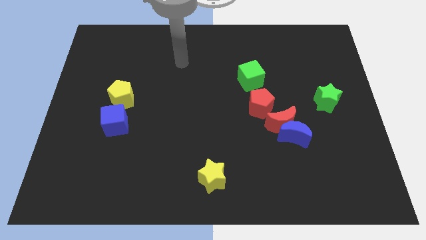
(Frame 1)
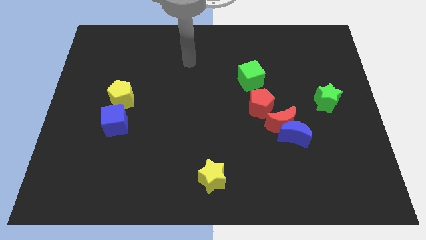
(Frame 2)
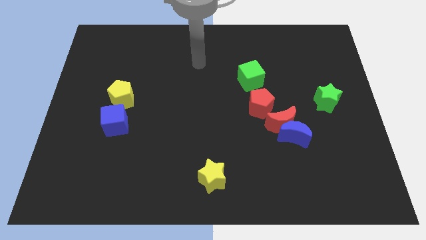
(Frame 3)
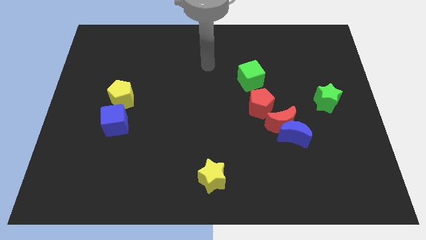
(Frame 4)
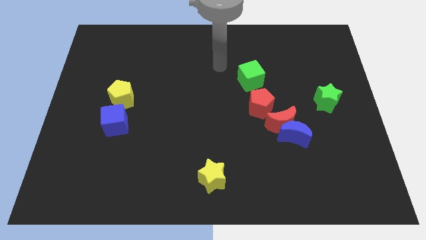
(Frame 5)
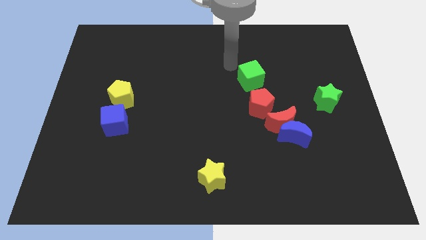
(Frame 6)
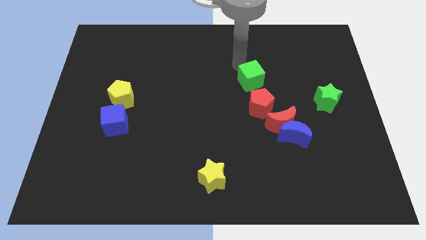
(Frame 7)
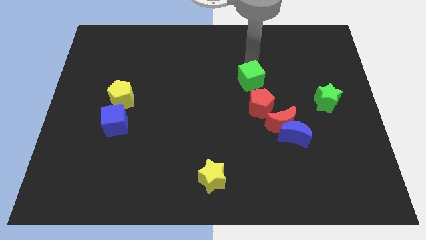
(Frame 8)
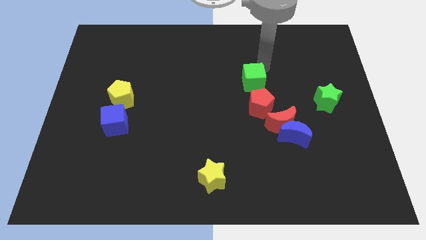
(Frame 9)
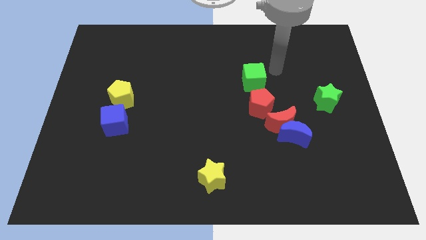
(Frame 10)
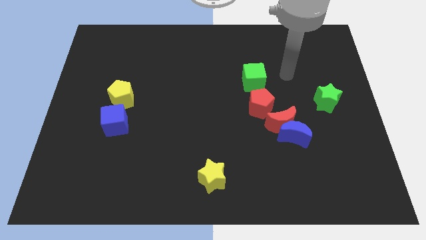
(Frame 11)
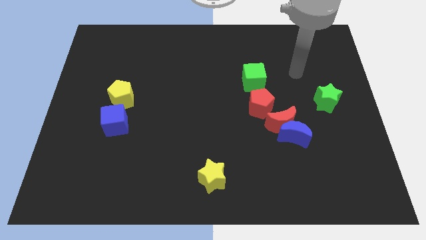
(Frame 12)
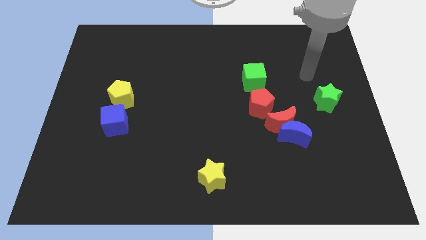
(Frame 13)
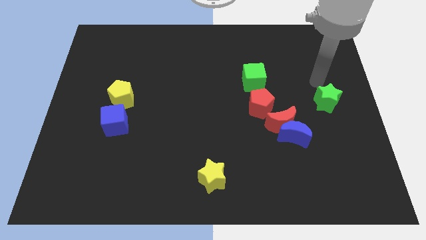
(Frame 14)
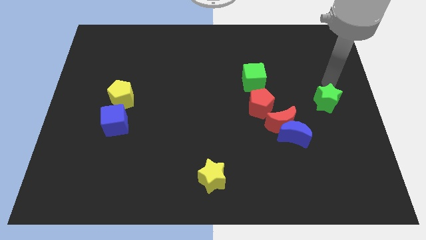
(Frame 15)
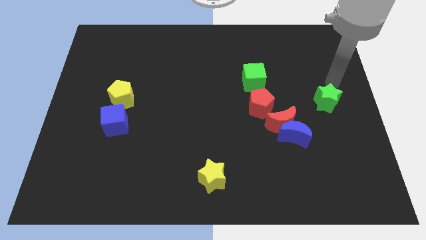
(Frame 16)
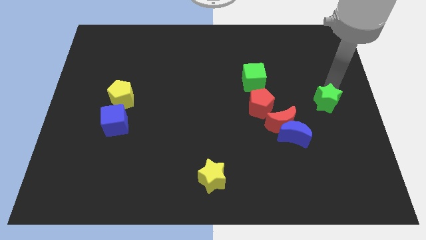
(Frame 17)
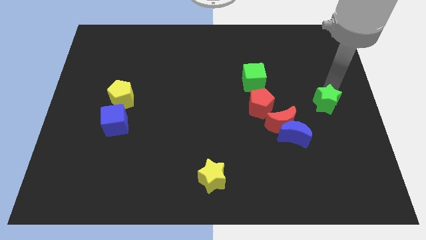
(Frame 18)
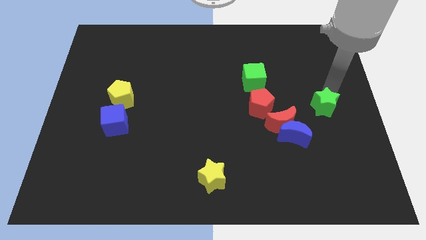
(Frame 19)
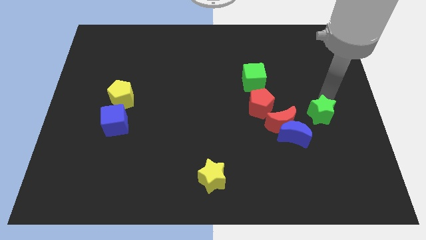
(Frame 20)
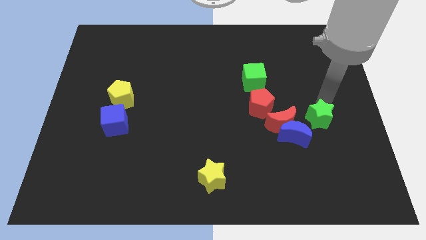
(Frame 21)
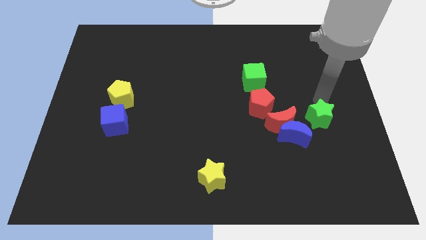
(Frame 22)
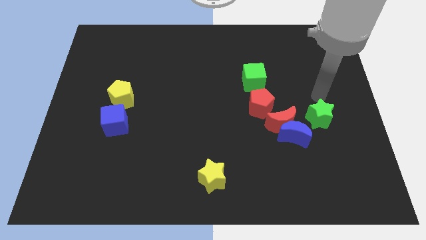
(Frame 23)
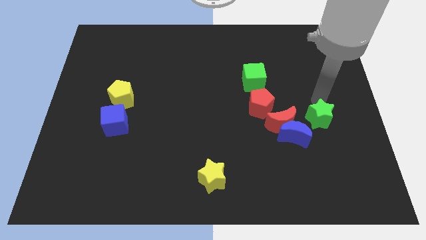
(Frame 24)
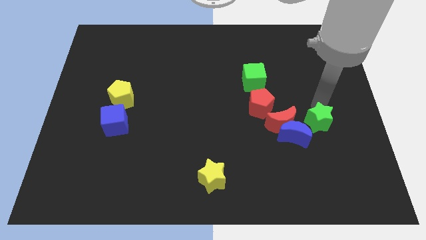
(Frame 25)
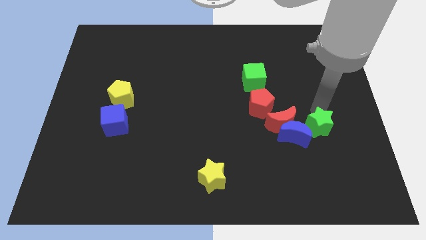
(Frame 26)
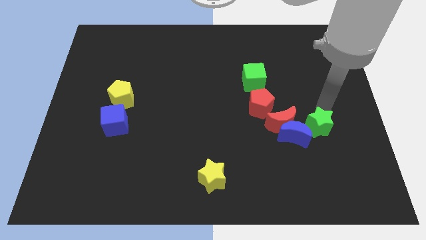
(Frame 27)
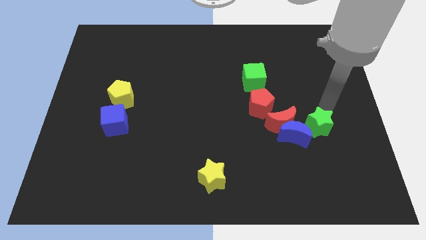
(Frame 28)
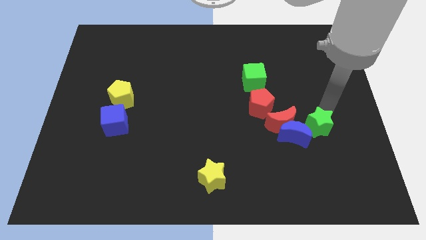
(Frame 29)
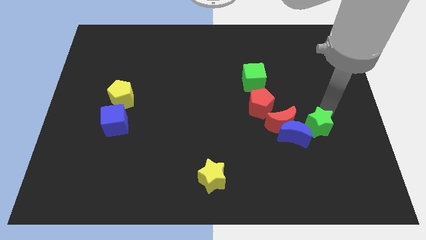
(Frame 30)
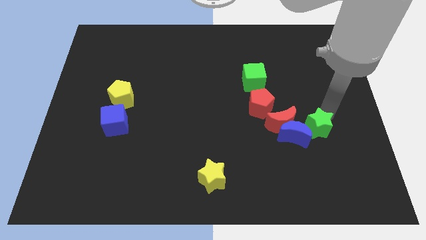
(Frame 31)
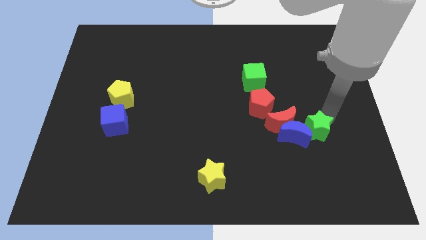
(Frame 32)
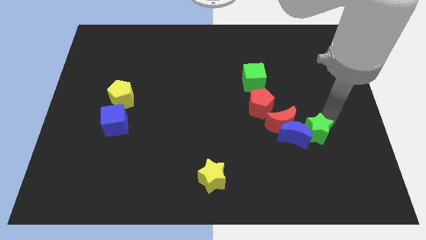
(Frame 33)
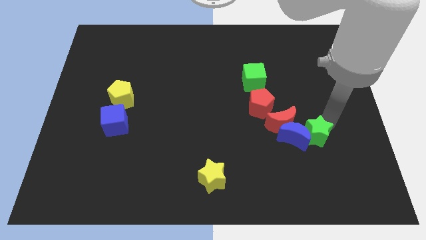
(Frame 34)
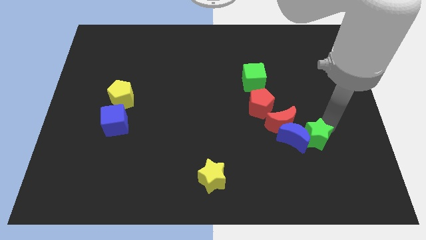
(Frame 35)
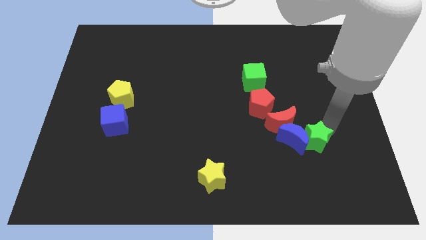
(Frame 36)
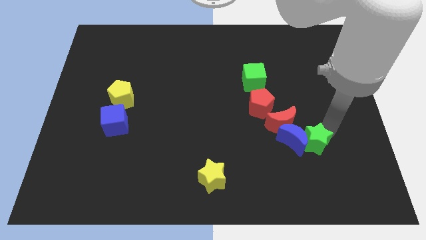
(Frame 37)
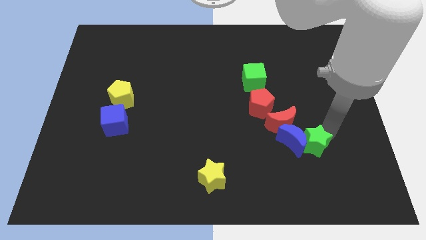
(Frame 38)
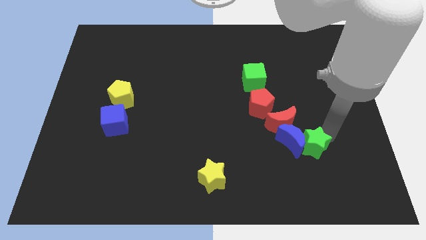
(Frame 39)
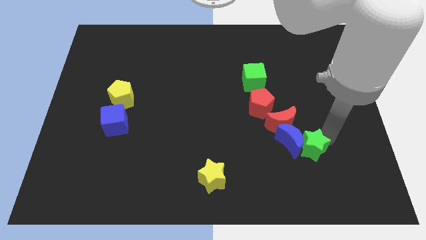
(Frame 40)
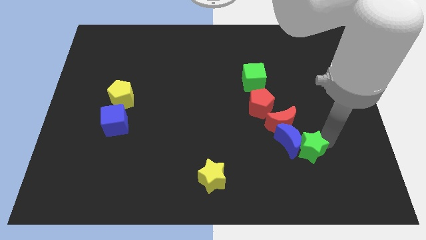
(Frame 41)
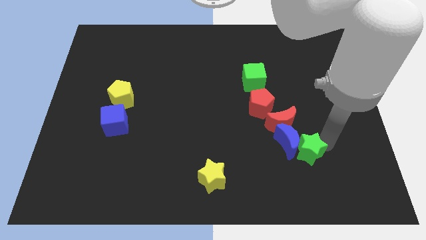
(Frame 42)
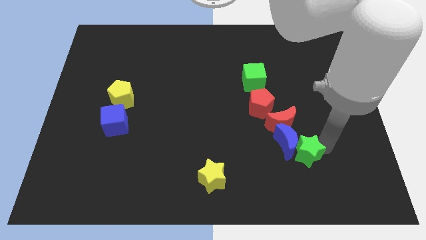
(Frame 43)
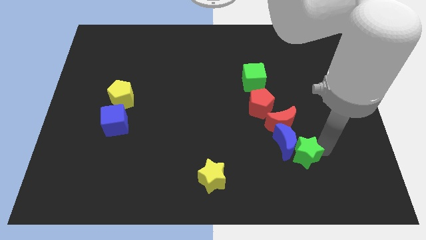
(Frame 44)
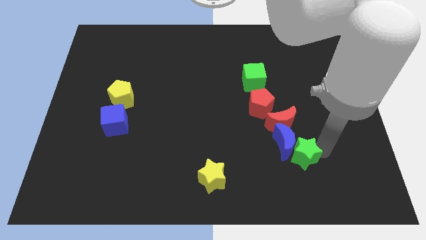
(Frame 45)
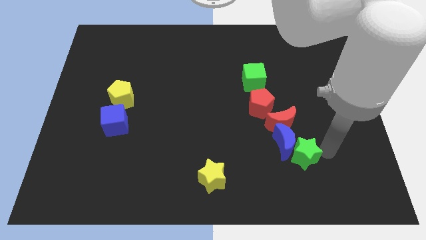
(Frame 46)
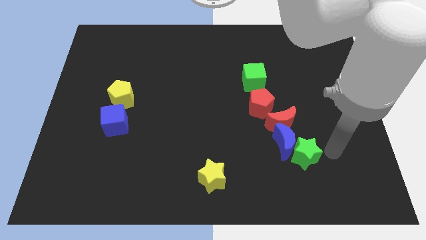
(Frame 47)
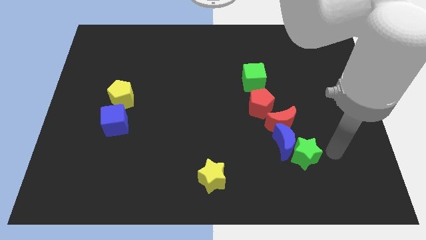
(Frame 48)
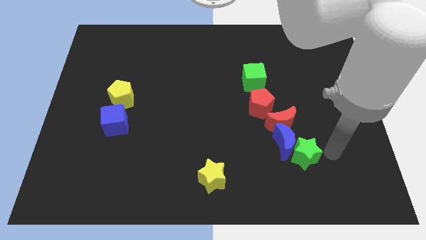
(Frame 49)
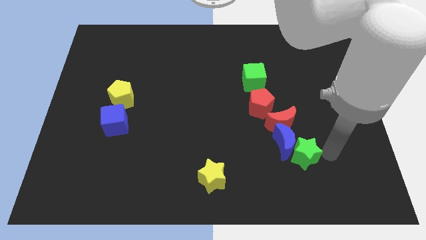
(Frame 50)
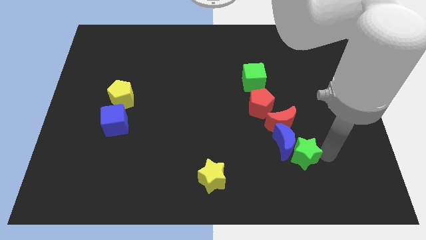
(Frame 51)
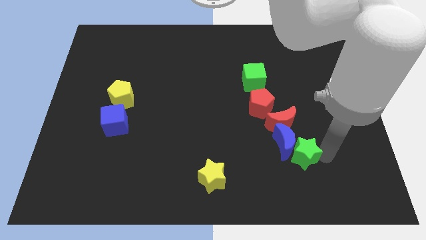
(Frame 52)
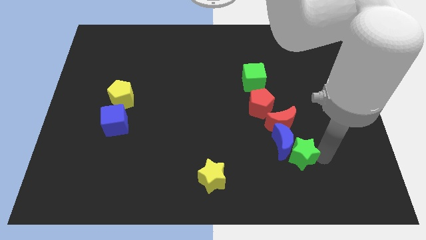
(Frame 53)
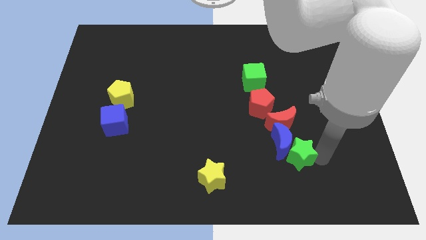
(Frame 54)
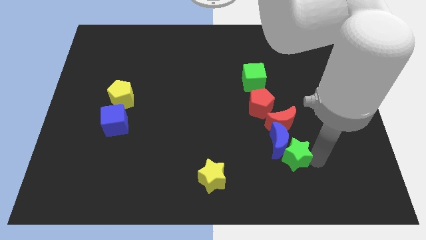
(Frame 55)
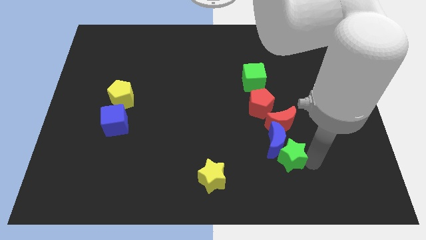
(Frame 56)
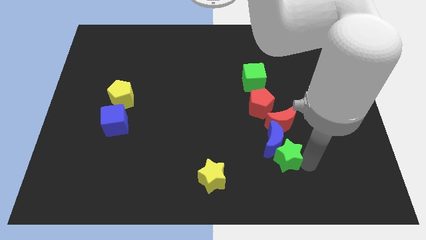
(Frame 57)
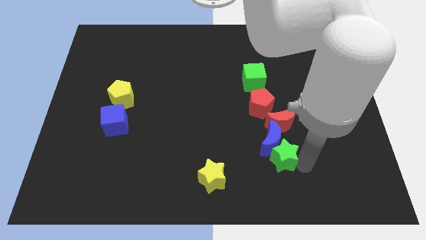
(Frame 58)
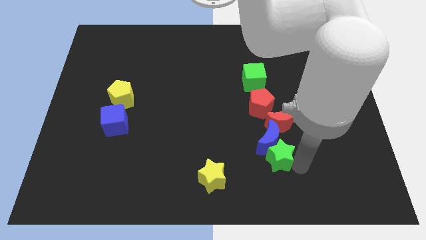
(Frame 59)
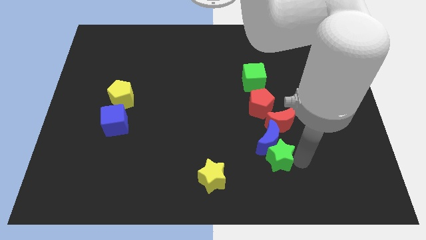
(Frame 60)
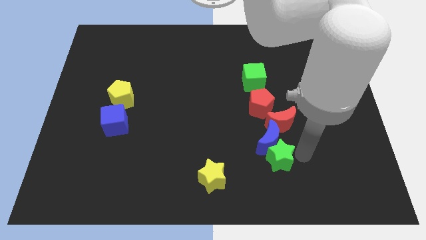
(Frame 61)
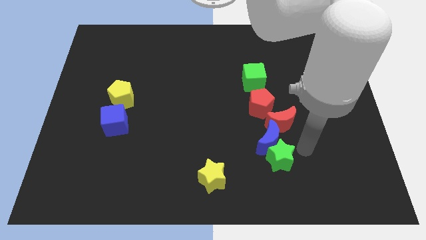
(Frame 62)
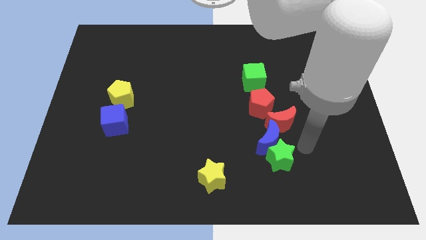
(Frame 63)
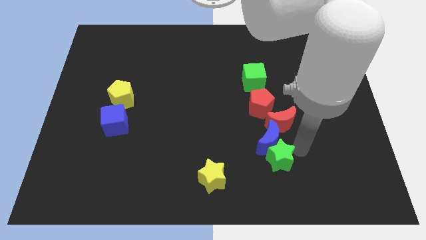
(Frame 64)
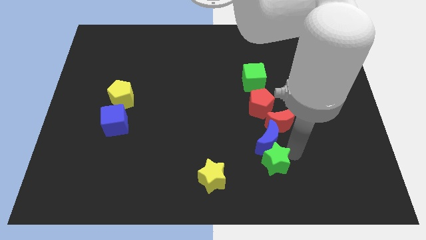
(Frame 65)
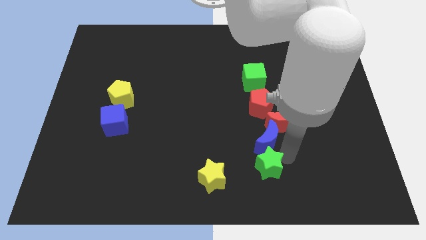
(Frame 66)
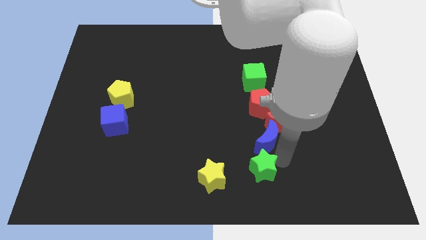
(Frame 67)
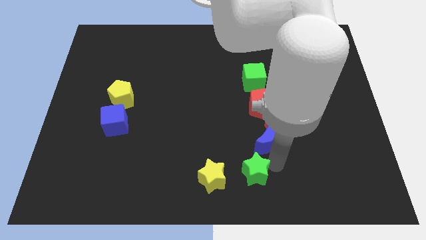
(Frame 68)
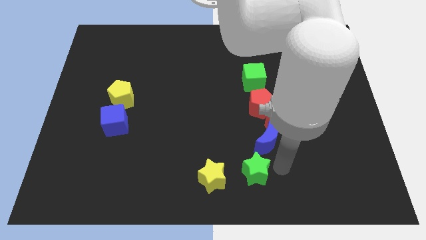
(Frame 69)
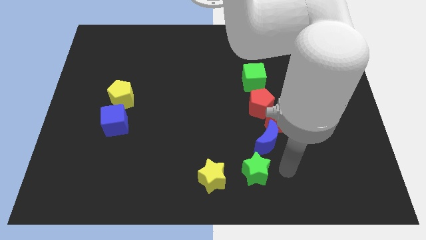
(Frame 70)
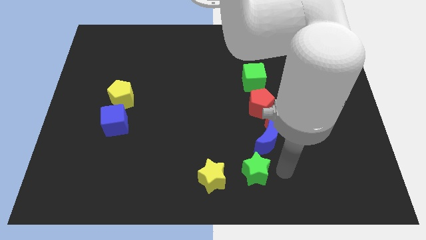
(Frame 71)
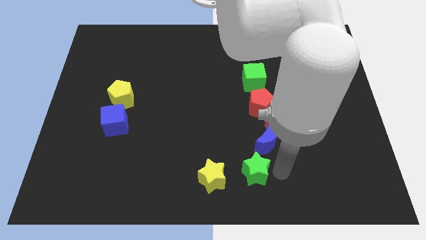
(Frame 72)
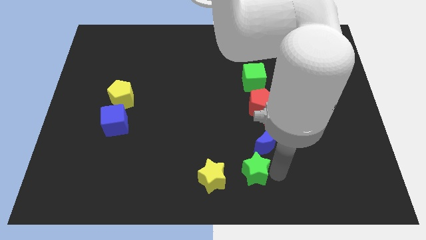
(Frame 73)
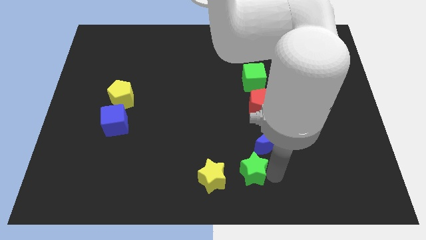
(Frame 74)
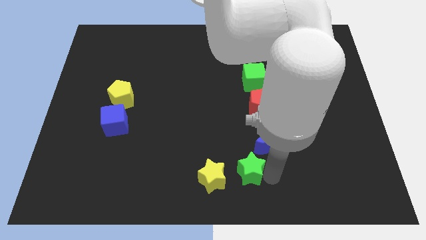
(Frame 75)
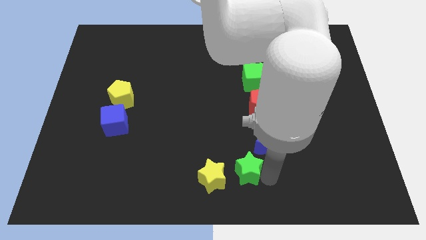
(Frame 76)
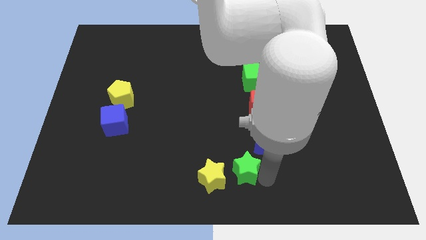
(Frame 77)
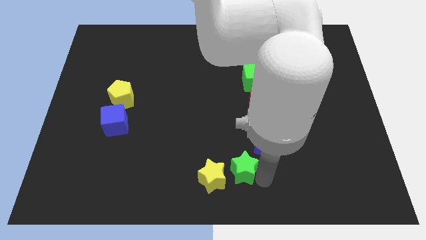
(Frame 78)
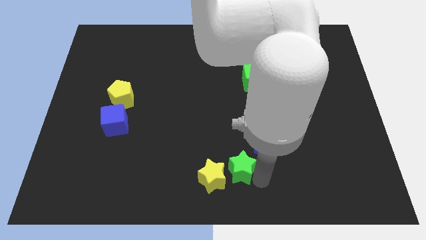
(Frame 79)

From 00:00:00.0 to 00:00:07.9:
put the green star close to the yellow star
